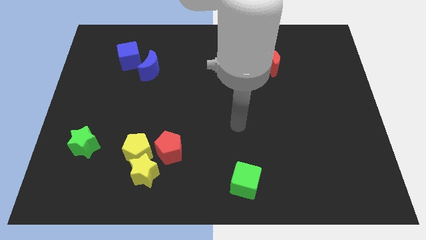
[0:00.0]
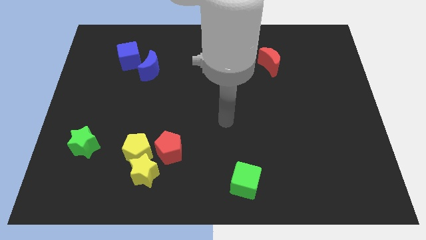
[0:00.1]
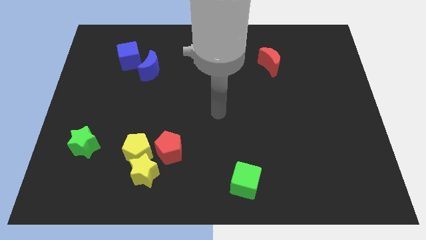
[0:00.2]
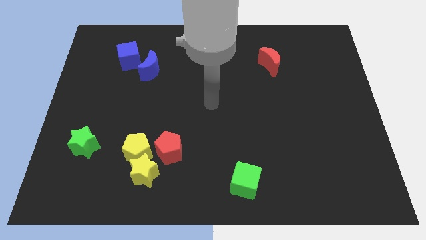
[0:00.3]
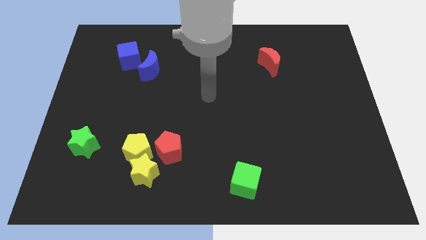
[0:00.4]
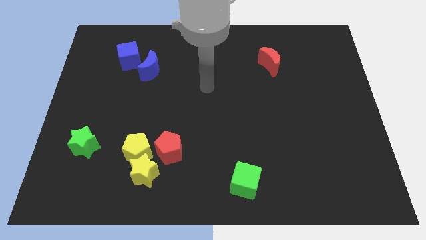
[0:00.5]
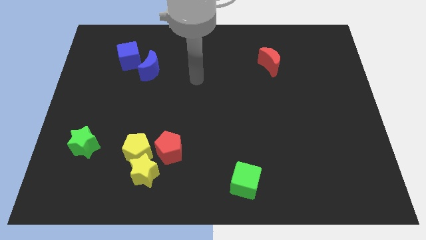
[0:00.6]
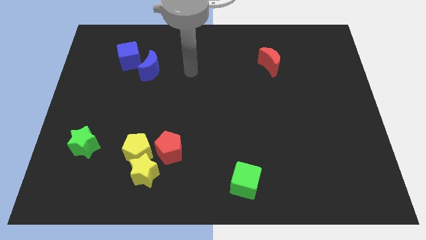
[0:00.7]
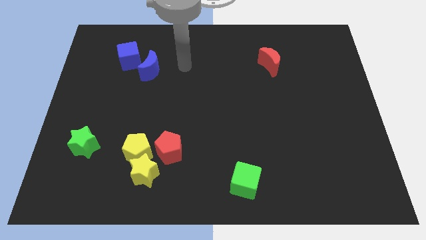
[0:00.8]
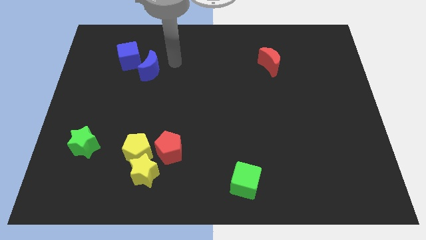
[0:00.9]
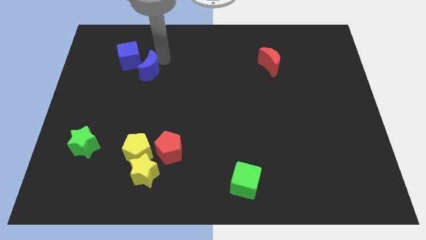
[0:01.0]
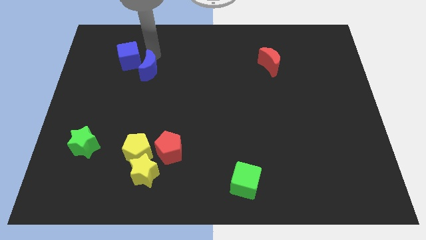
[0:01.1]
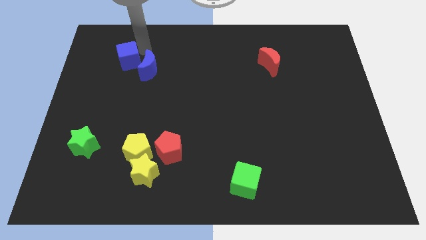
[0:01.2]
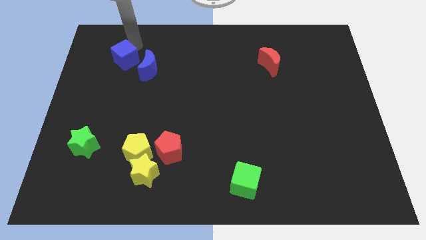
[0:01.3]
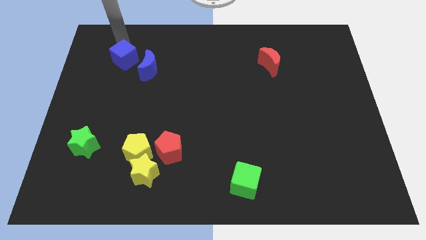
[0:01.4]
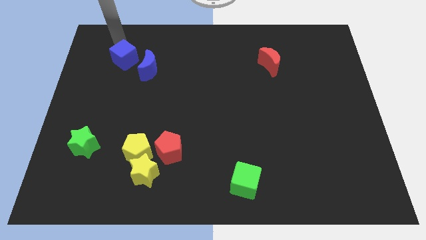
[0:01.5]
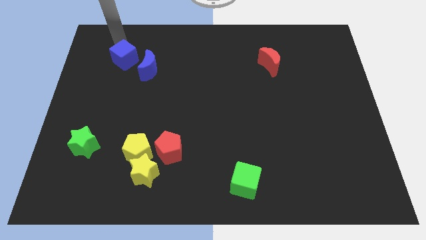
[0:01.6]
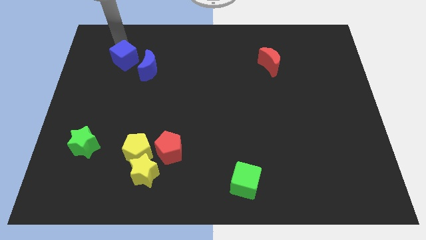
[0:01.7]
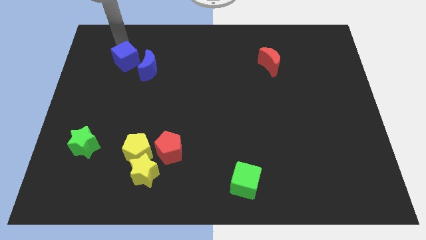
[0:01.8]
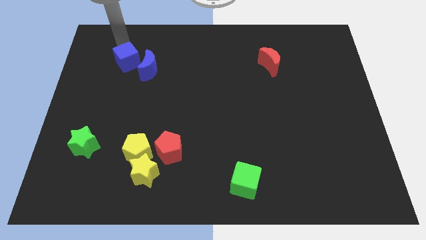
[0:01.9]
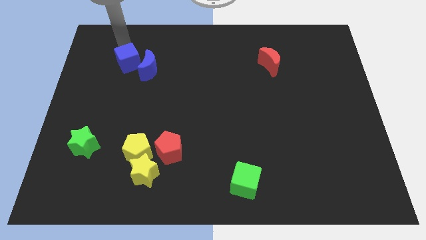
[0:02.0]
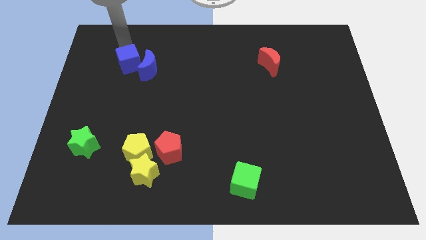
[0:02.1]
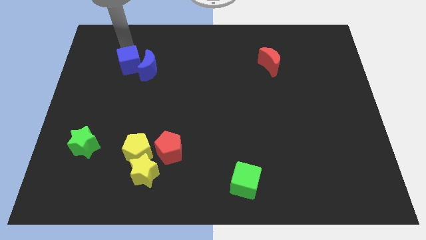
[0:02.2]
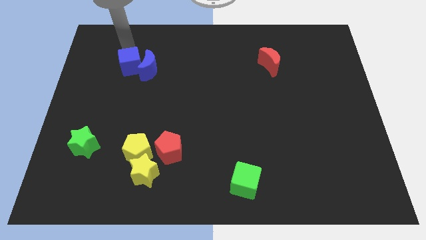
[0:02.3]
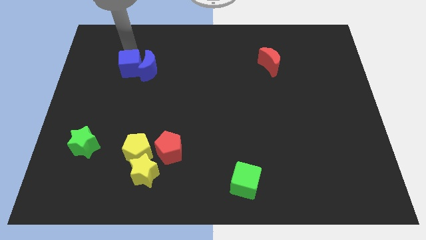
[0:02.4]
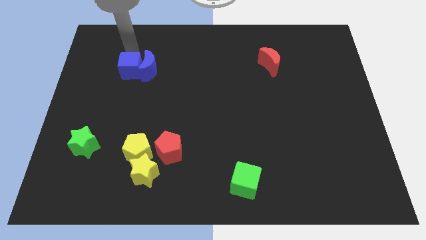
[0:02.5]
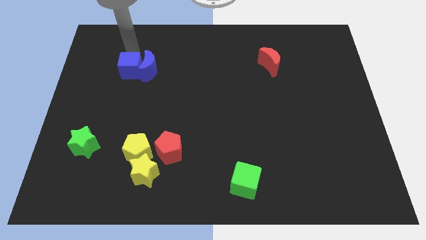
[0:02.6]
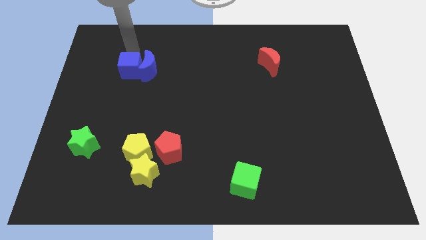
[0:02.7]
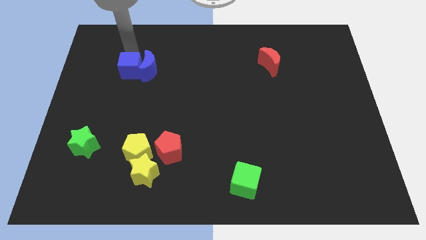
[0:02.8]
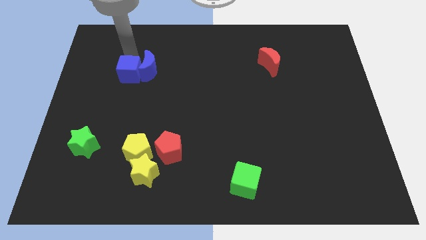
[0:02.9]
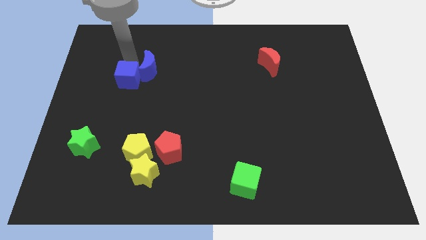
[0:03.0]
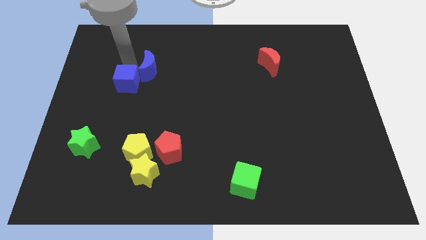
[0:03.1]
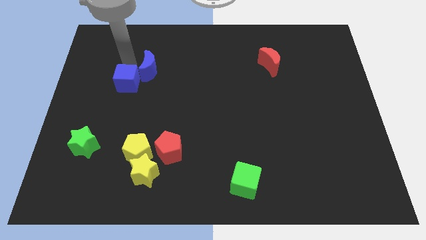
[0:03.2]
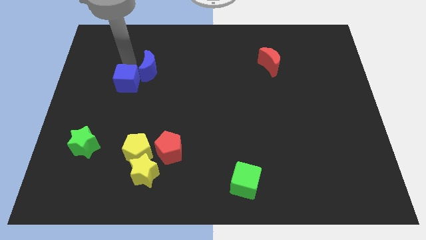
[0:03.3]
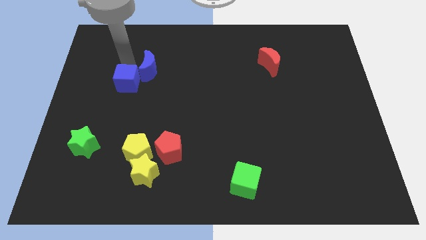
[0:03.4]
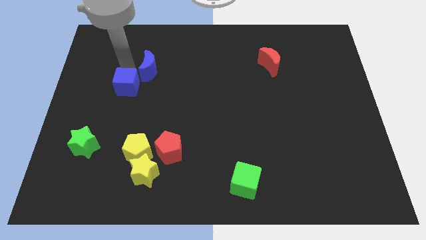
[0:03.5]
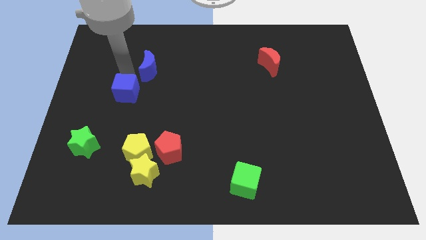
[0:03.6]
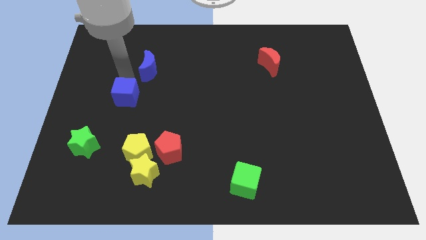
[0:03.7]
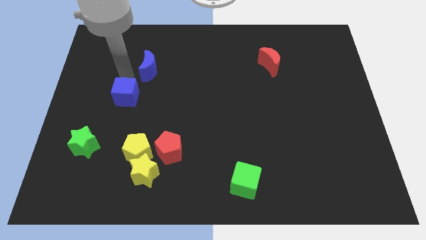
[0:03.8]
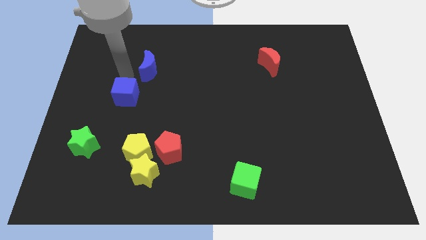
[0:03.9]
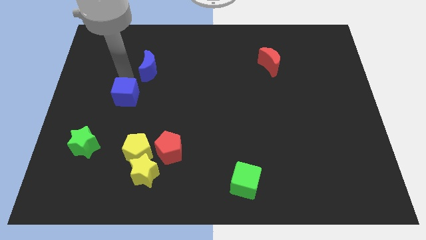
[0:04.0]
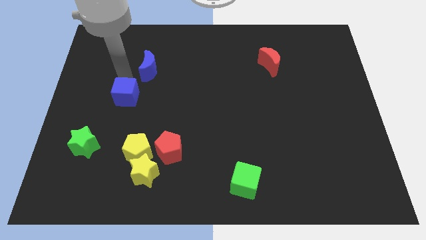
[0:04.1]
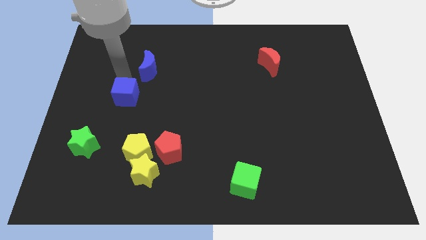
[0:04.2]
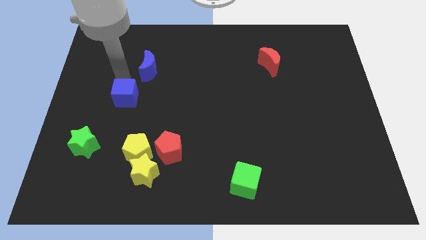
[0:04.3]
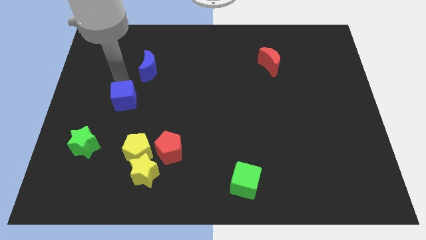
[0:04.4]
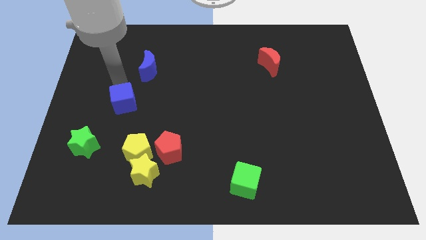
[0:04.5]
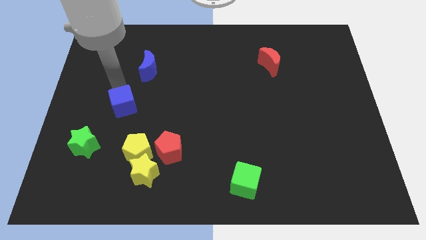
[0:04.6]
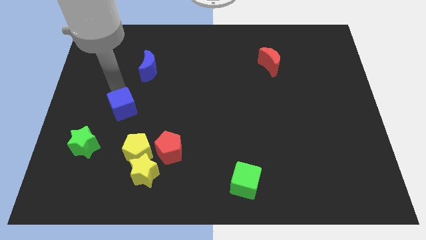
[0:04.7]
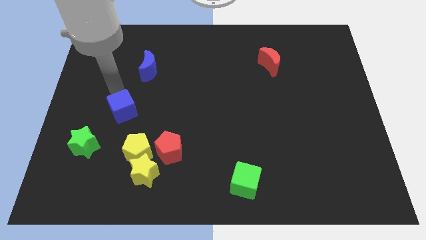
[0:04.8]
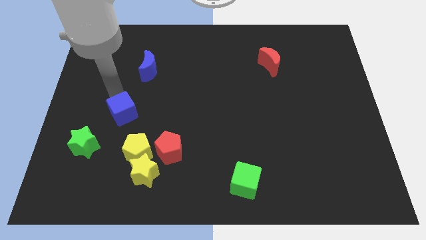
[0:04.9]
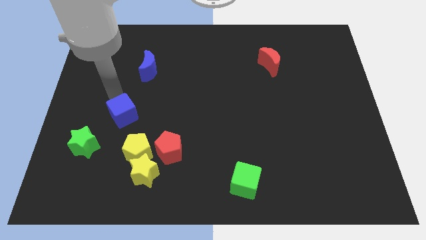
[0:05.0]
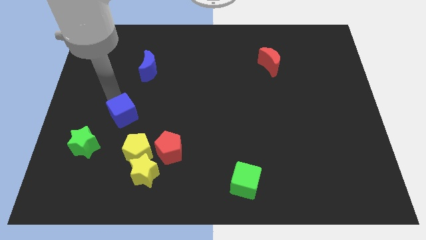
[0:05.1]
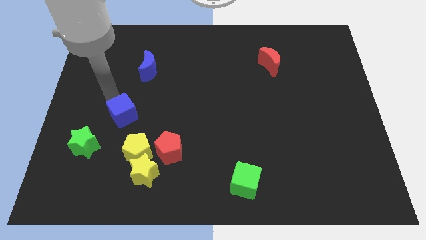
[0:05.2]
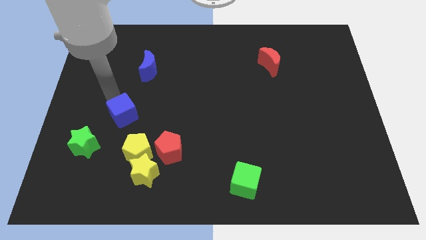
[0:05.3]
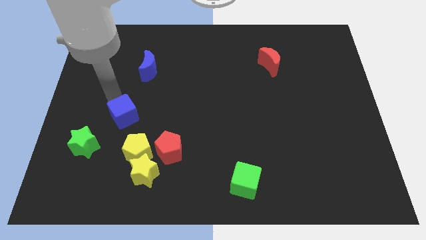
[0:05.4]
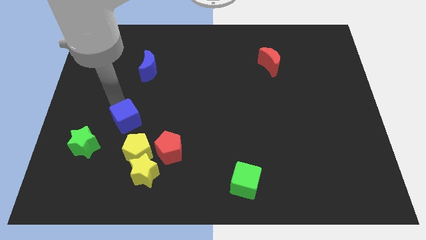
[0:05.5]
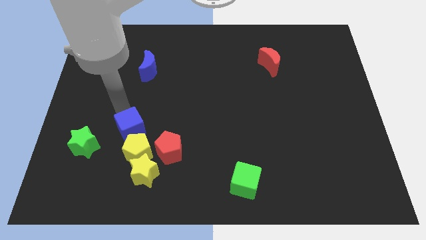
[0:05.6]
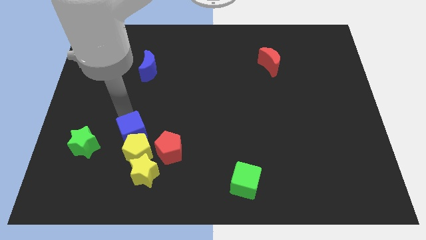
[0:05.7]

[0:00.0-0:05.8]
push the blue cube close to the yellow pentagon

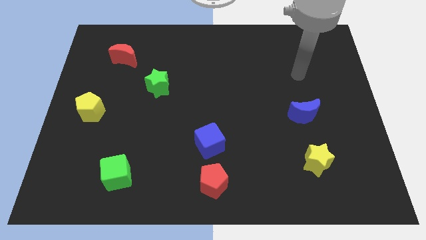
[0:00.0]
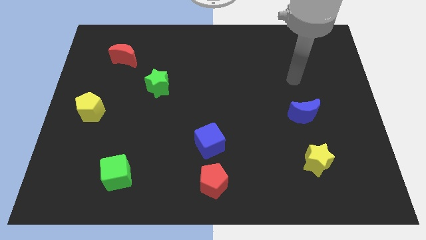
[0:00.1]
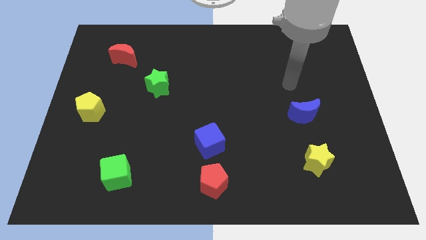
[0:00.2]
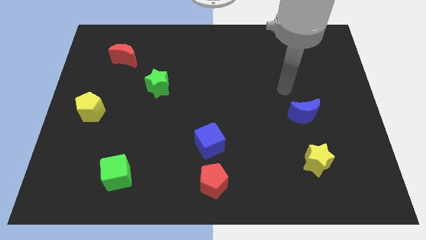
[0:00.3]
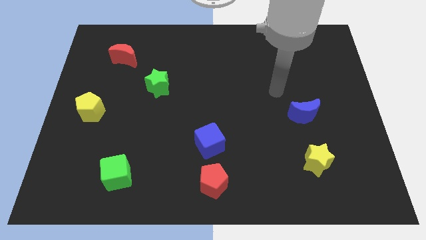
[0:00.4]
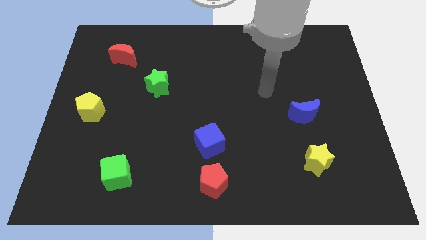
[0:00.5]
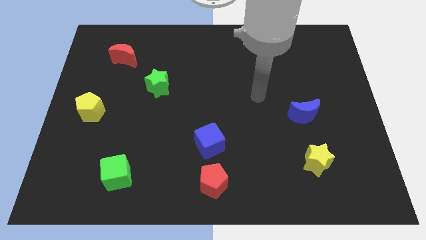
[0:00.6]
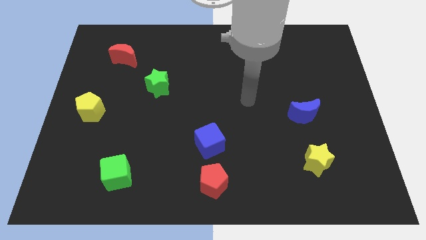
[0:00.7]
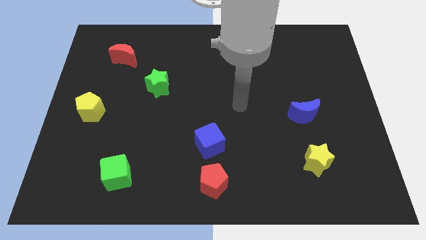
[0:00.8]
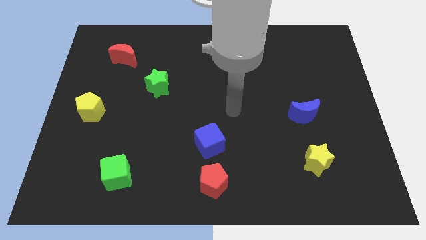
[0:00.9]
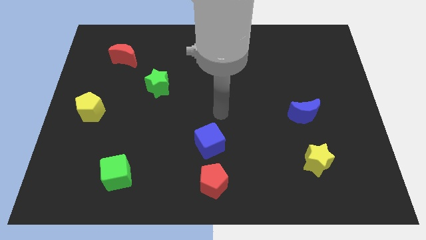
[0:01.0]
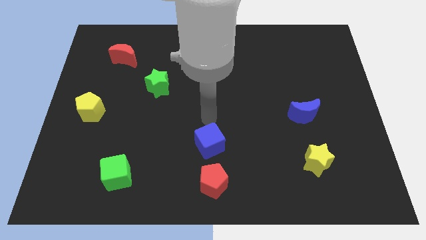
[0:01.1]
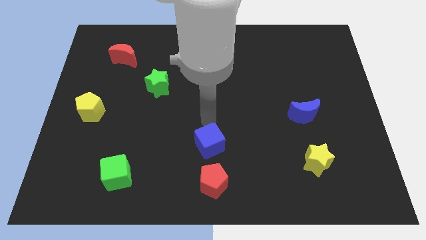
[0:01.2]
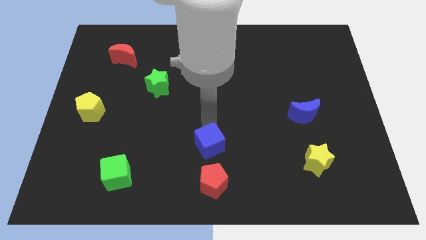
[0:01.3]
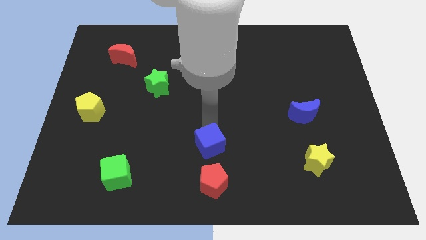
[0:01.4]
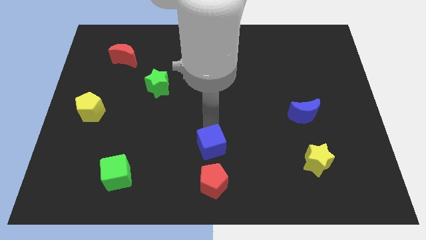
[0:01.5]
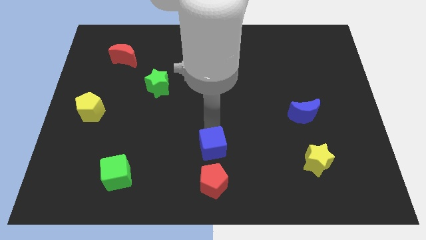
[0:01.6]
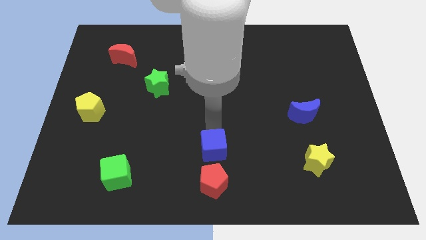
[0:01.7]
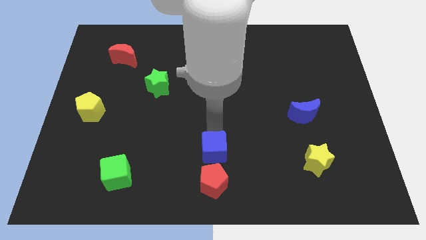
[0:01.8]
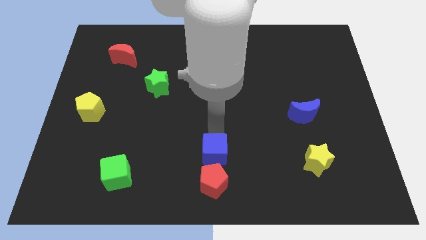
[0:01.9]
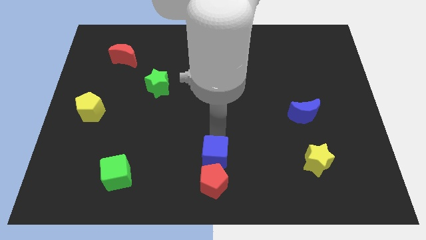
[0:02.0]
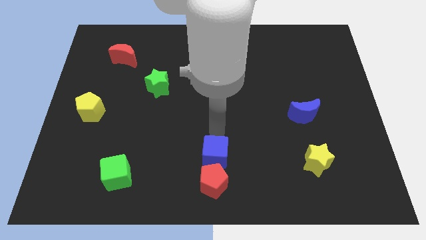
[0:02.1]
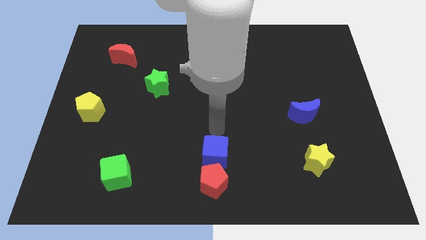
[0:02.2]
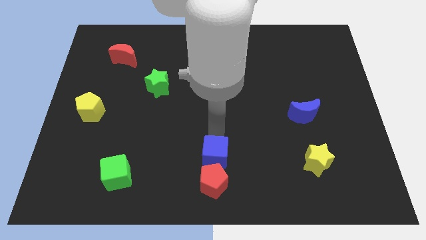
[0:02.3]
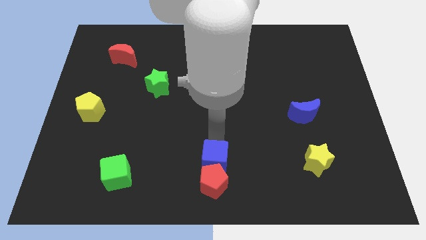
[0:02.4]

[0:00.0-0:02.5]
move the blue cube next to the red pentagon
